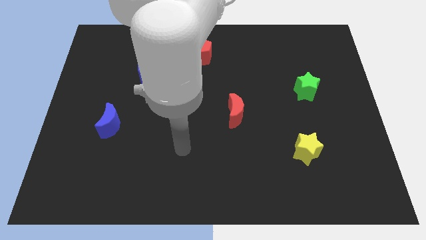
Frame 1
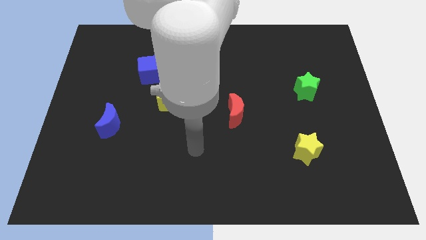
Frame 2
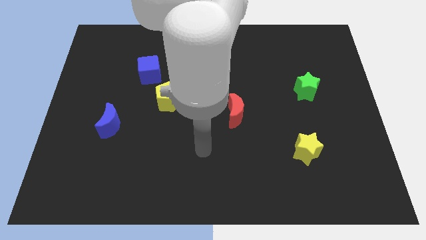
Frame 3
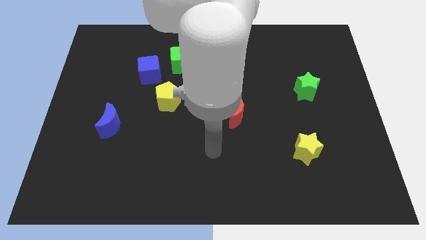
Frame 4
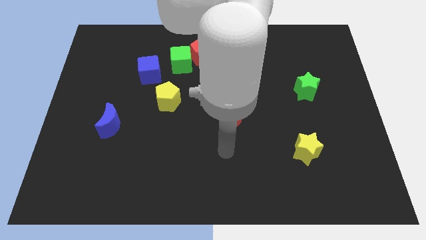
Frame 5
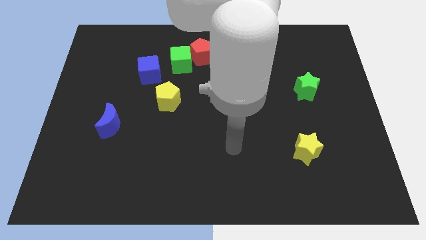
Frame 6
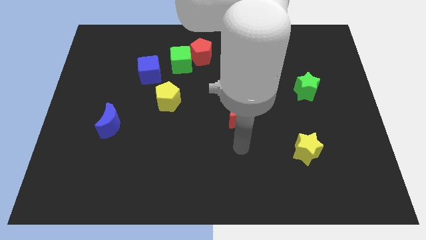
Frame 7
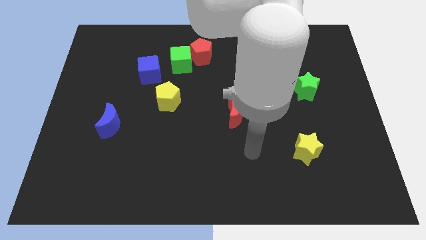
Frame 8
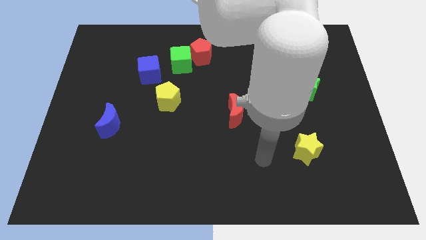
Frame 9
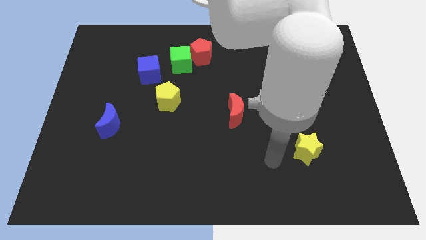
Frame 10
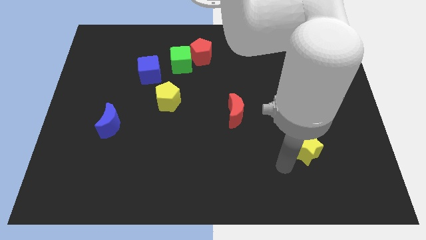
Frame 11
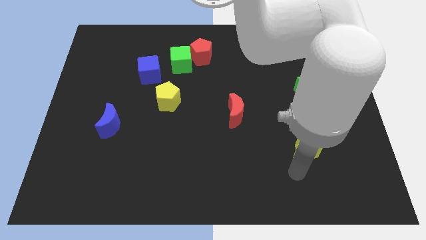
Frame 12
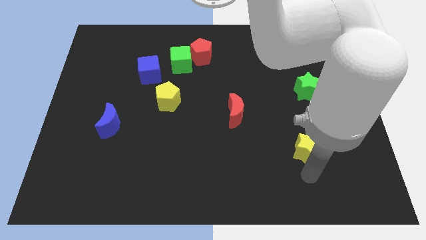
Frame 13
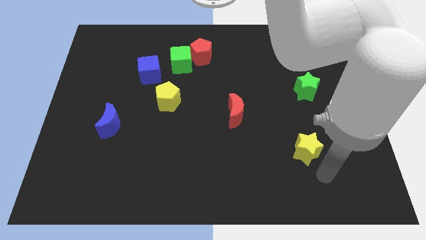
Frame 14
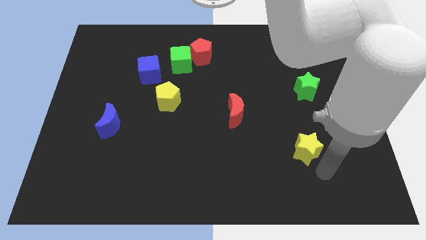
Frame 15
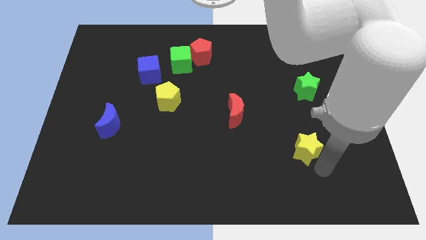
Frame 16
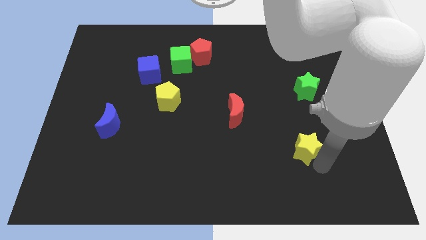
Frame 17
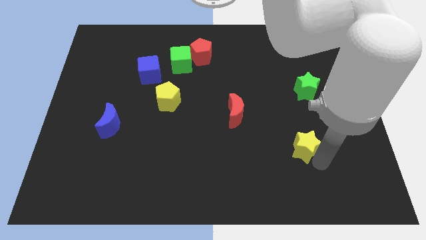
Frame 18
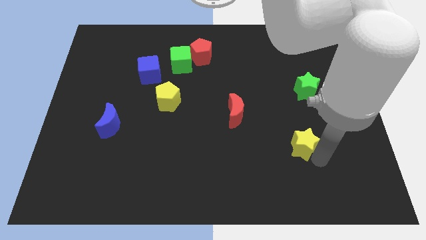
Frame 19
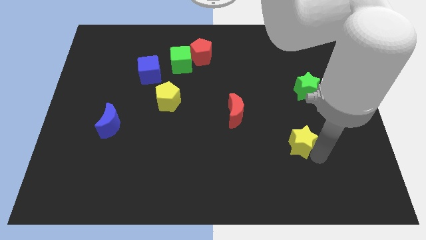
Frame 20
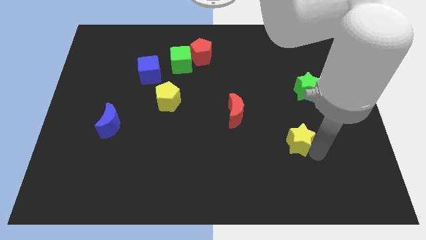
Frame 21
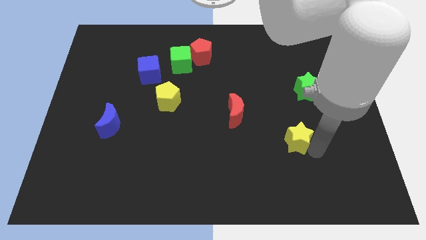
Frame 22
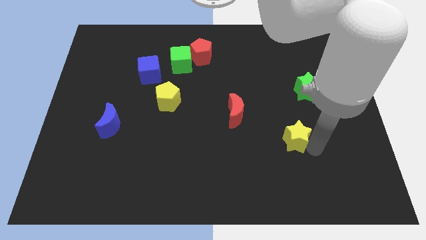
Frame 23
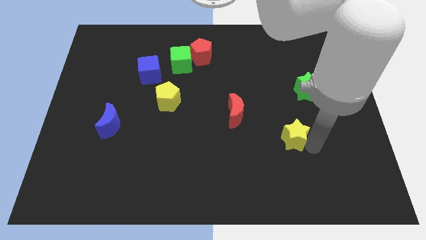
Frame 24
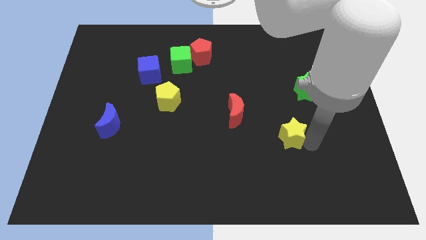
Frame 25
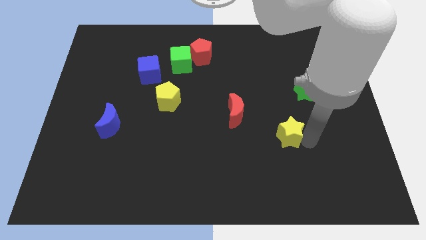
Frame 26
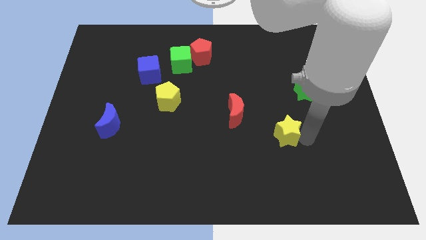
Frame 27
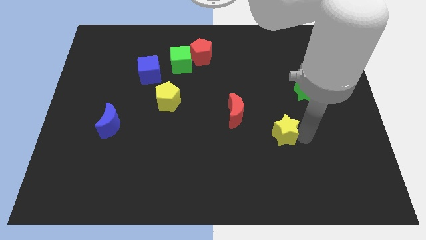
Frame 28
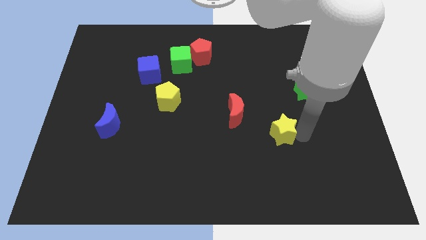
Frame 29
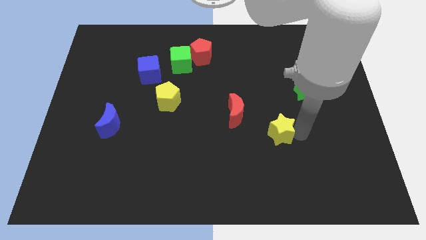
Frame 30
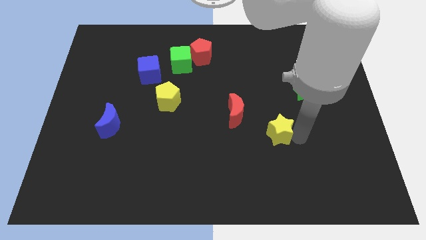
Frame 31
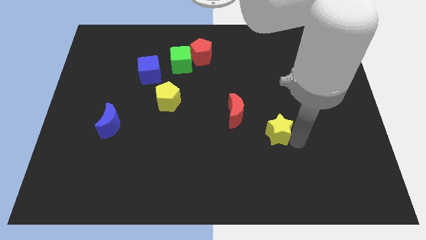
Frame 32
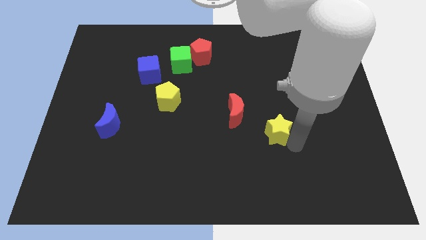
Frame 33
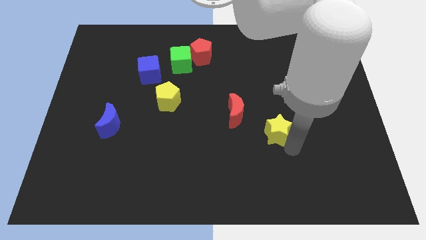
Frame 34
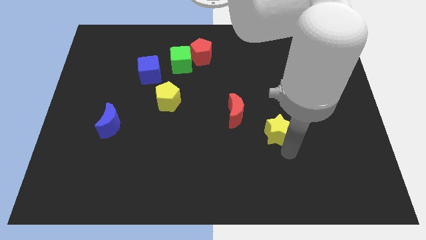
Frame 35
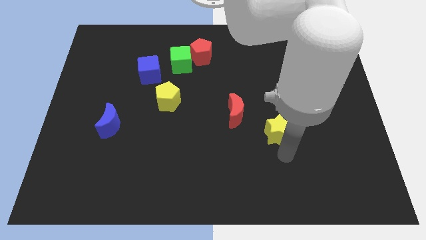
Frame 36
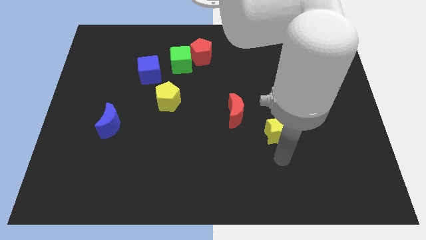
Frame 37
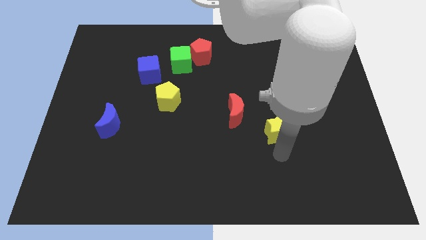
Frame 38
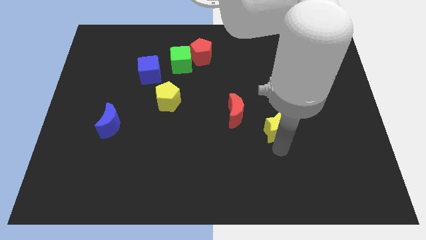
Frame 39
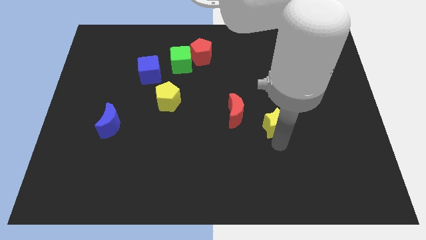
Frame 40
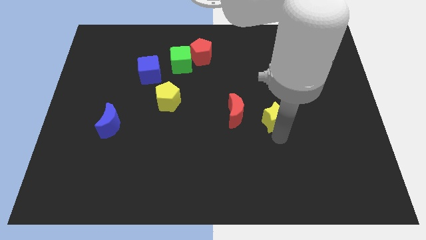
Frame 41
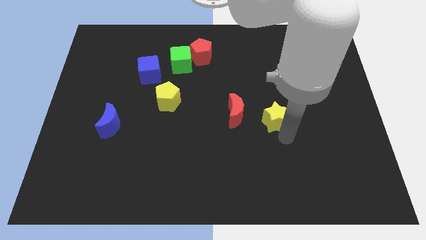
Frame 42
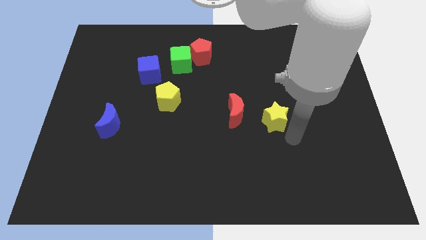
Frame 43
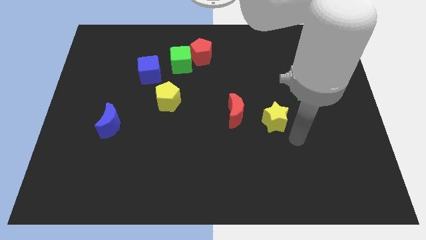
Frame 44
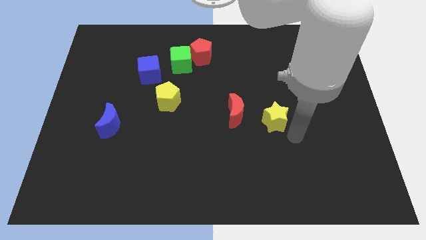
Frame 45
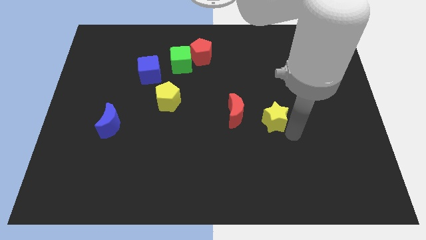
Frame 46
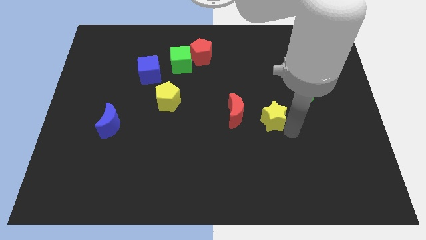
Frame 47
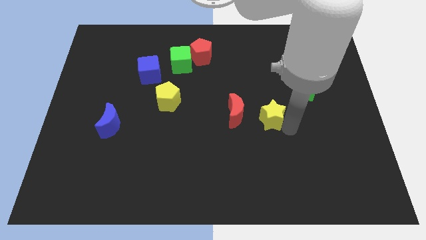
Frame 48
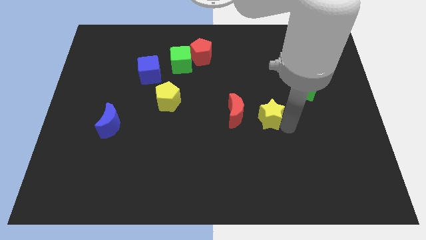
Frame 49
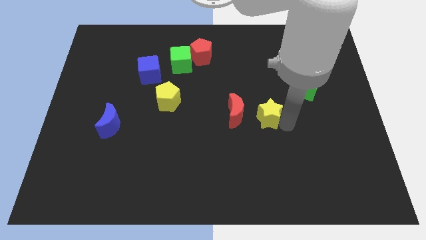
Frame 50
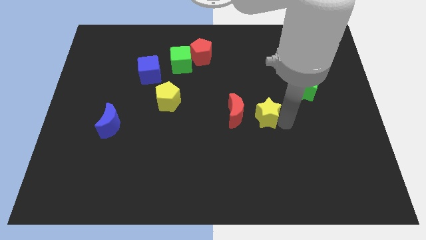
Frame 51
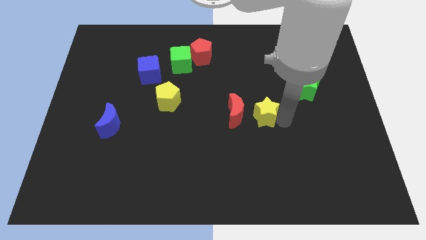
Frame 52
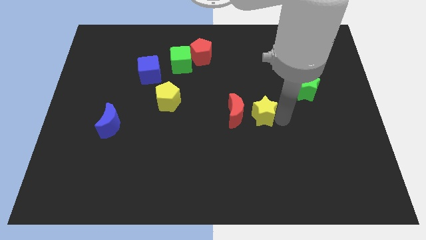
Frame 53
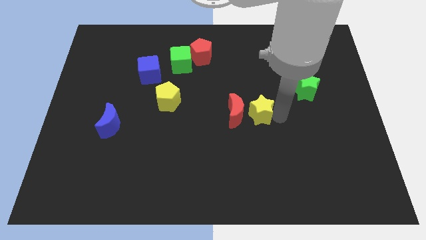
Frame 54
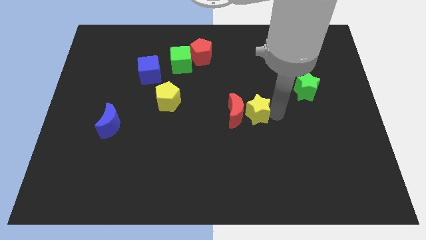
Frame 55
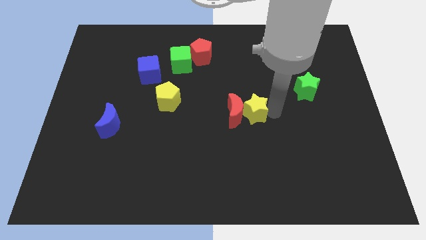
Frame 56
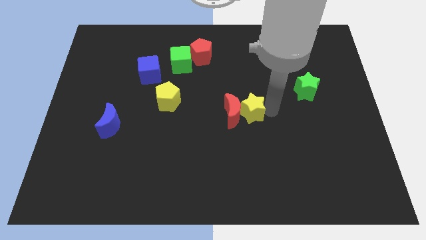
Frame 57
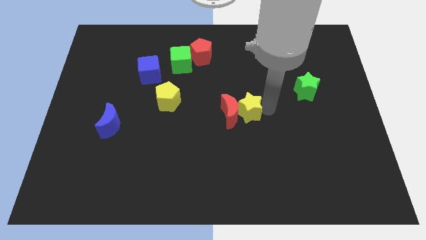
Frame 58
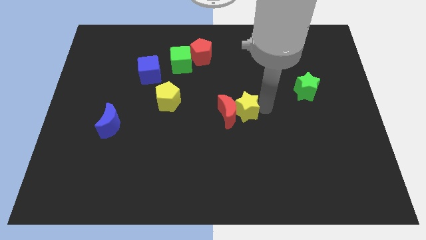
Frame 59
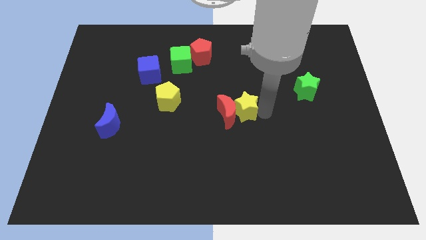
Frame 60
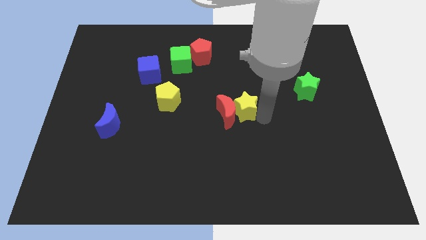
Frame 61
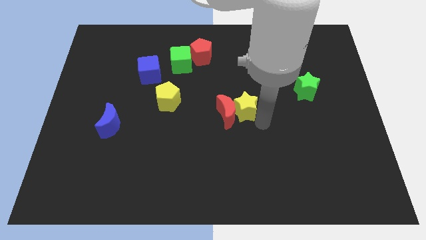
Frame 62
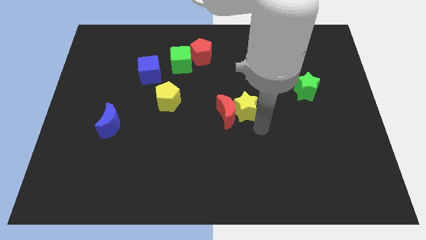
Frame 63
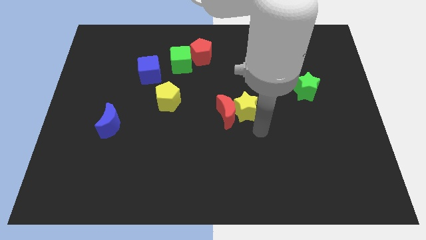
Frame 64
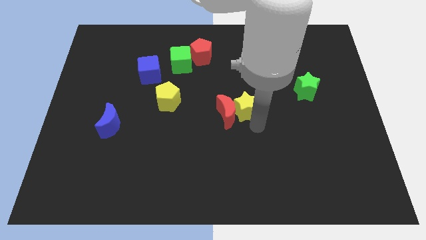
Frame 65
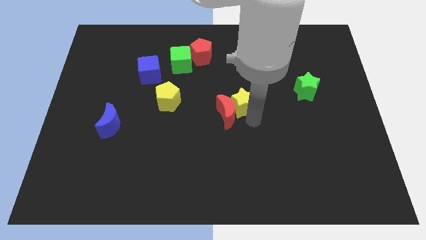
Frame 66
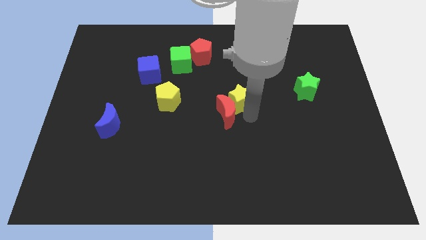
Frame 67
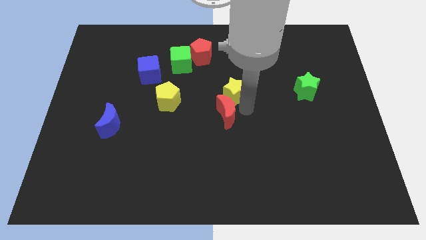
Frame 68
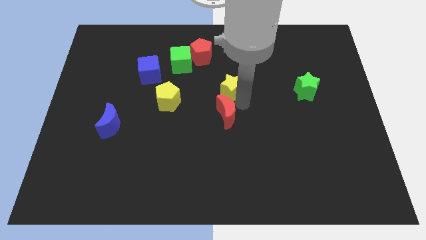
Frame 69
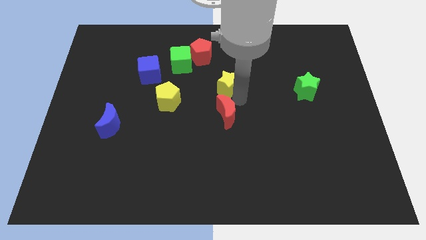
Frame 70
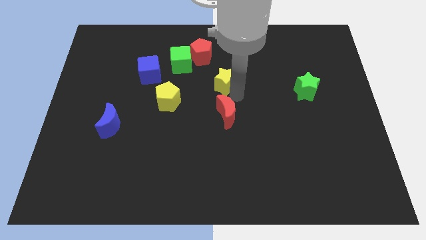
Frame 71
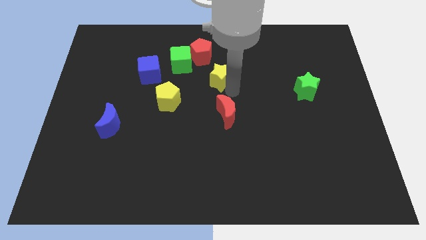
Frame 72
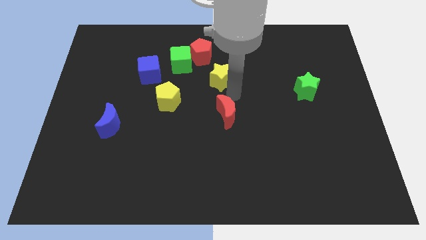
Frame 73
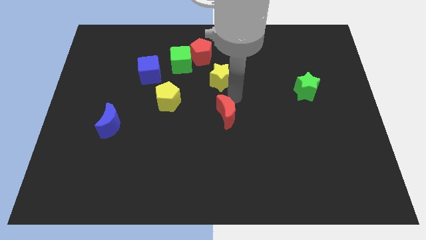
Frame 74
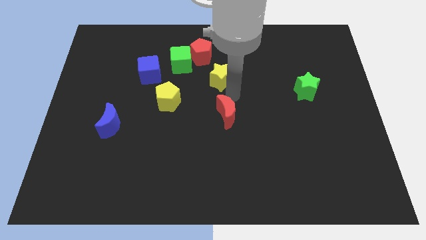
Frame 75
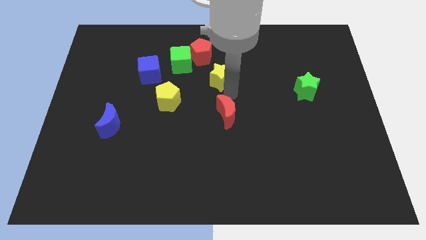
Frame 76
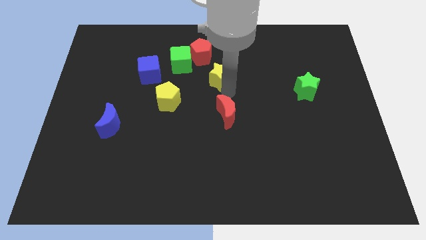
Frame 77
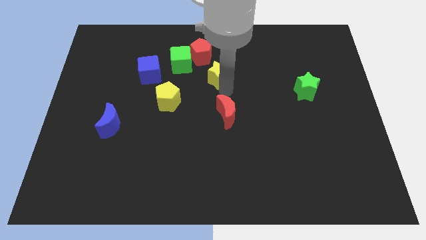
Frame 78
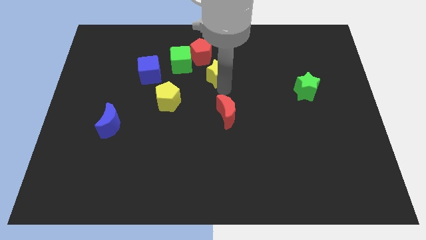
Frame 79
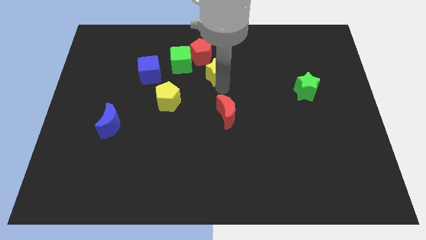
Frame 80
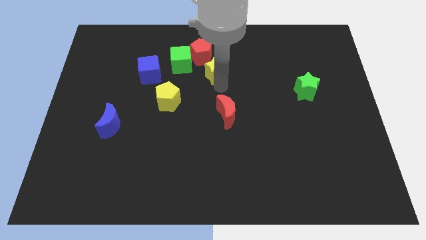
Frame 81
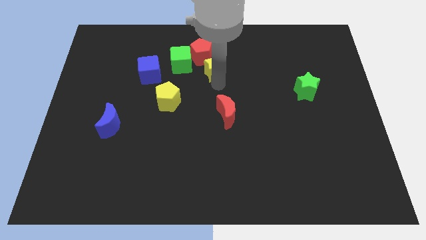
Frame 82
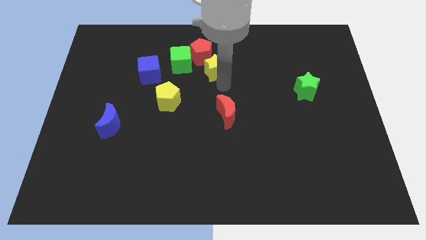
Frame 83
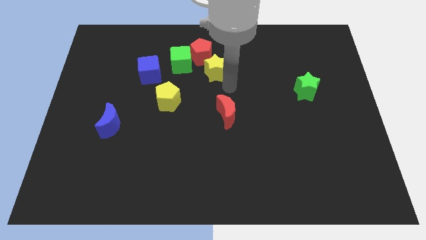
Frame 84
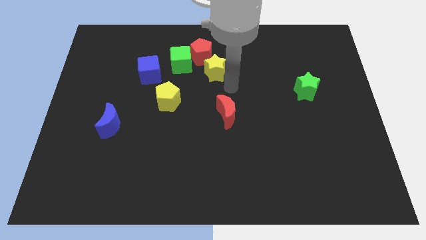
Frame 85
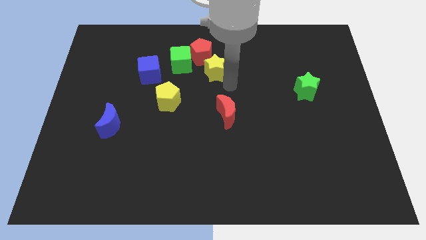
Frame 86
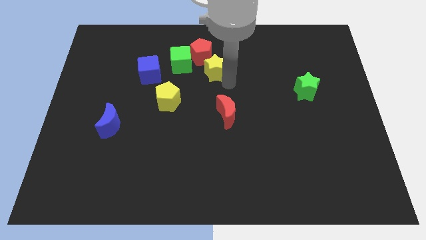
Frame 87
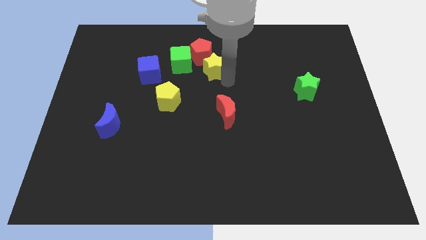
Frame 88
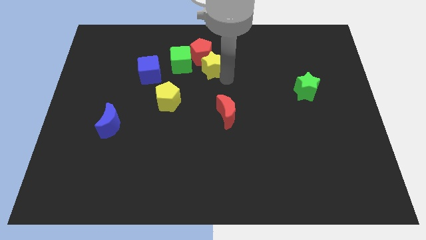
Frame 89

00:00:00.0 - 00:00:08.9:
move the yellow star next to the red pentagon
